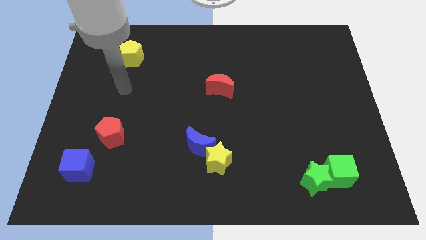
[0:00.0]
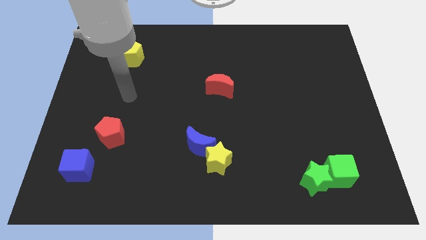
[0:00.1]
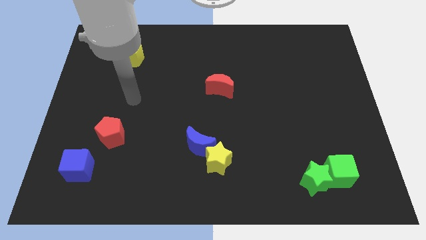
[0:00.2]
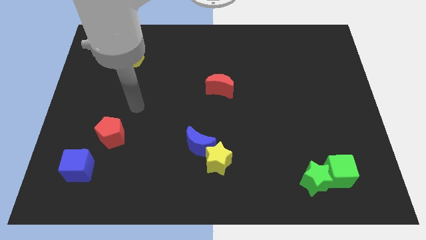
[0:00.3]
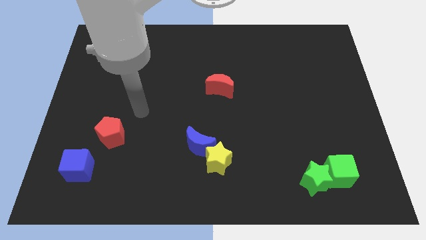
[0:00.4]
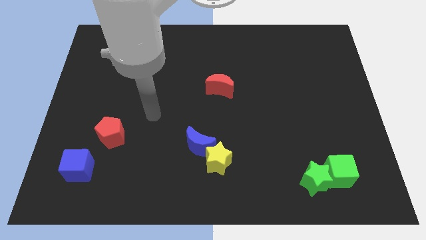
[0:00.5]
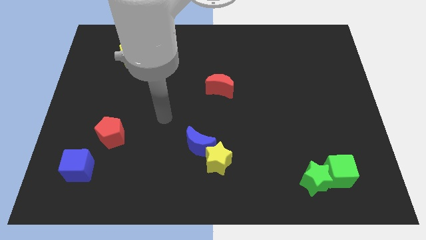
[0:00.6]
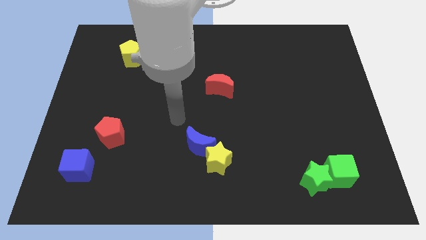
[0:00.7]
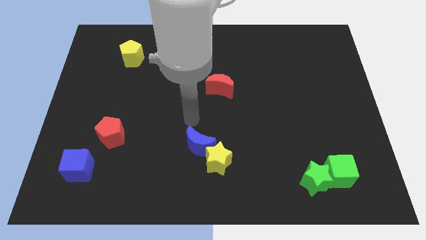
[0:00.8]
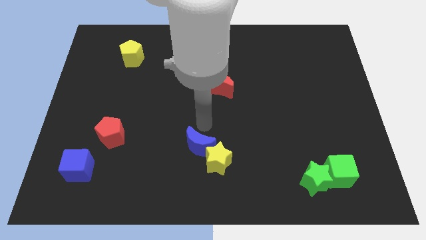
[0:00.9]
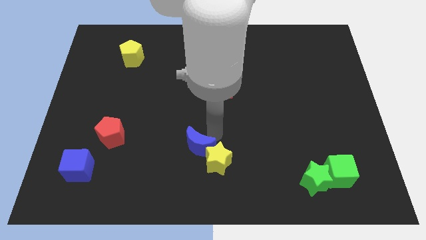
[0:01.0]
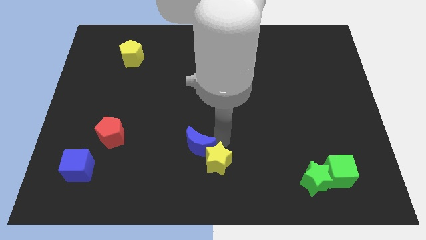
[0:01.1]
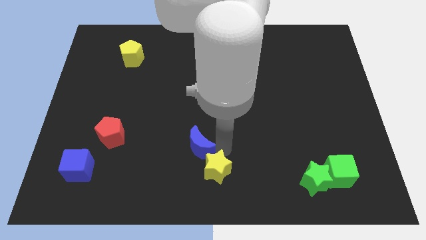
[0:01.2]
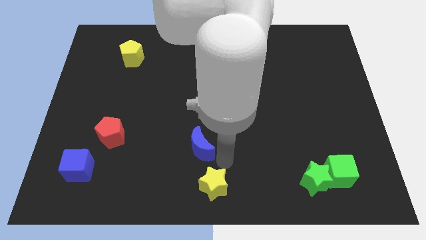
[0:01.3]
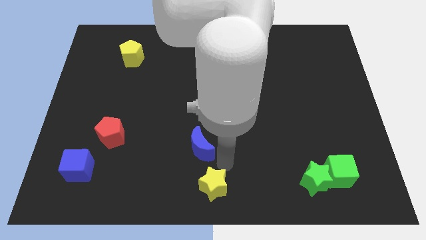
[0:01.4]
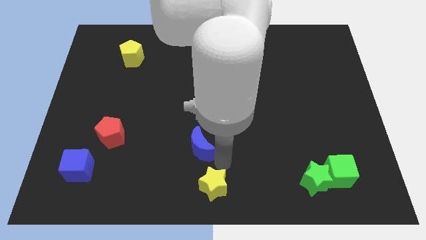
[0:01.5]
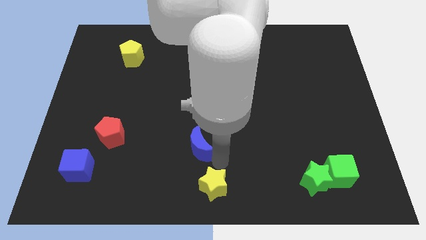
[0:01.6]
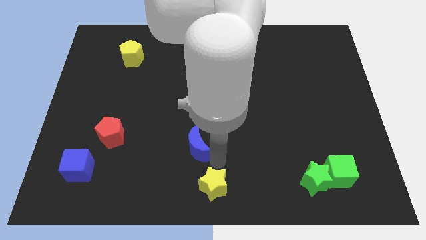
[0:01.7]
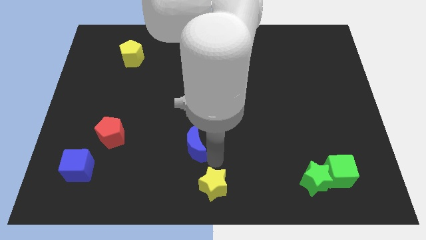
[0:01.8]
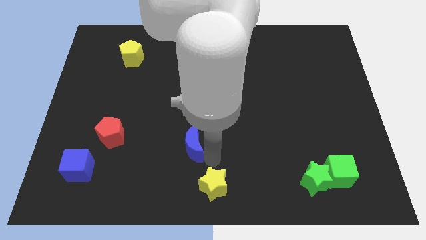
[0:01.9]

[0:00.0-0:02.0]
separate the blue moon from the yellow star

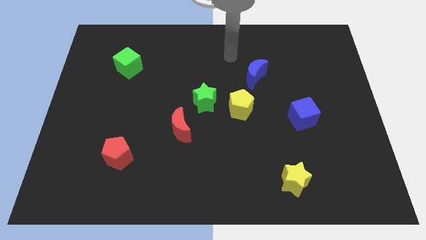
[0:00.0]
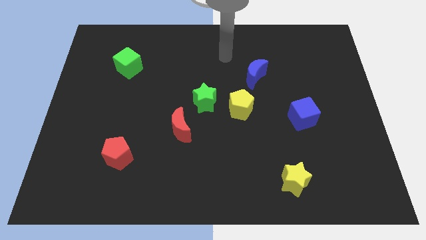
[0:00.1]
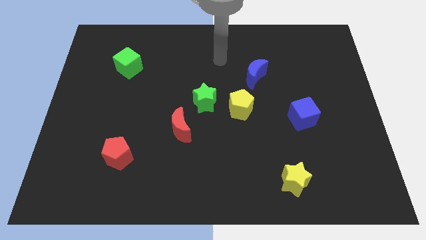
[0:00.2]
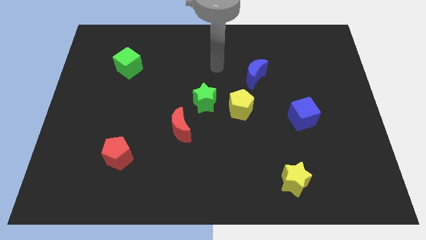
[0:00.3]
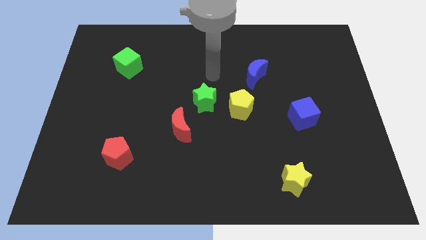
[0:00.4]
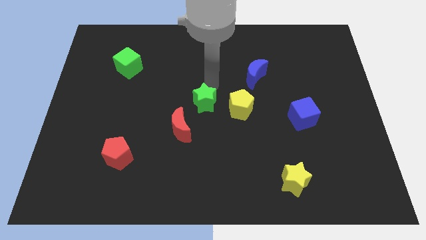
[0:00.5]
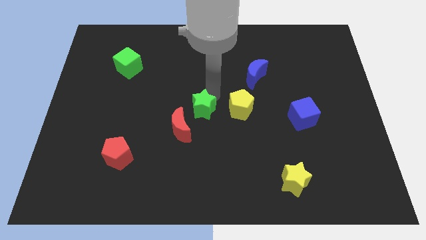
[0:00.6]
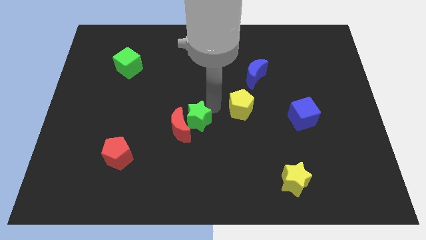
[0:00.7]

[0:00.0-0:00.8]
separate the yellow pentagon from the green star

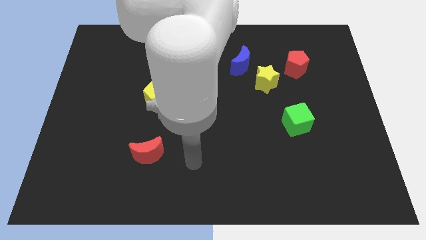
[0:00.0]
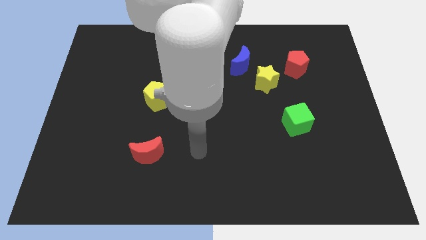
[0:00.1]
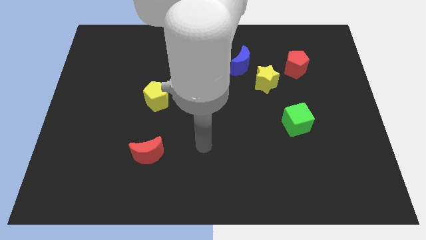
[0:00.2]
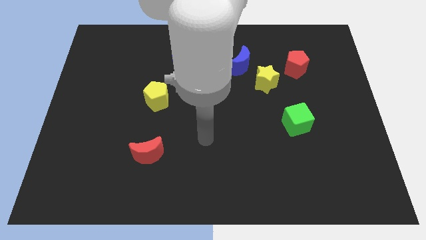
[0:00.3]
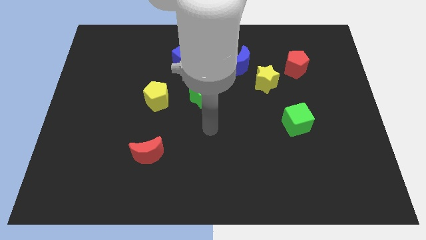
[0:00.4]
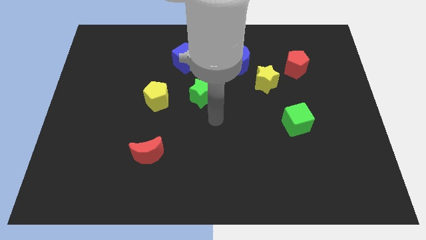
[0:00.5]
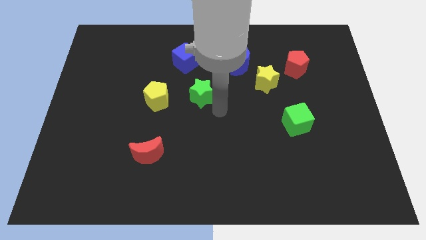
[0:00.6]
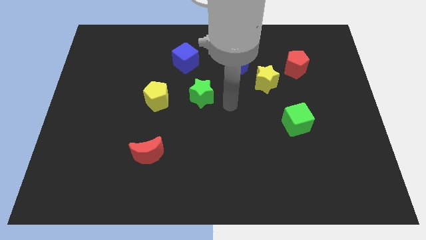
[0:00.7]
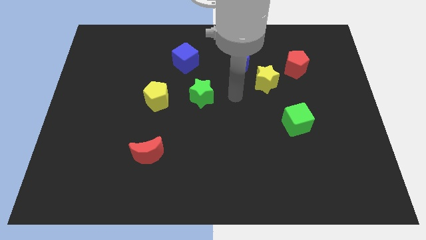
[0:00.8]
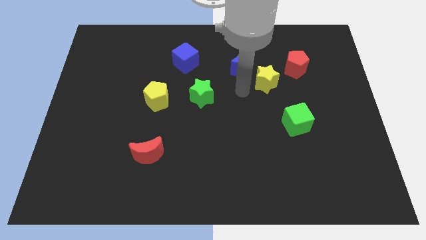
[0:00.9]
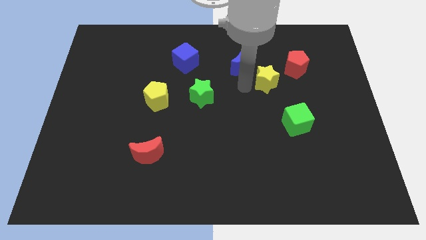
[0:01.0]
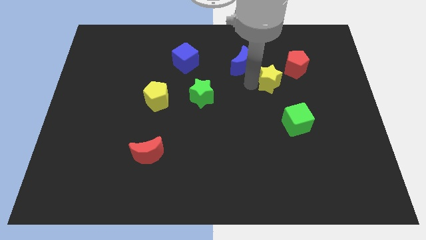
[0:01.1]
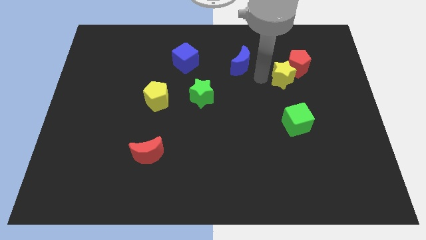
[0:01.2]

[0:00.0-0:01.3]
move the blue moon away from the yellow star

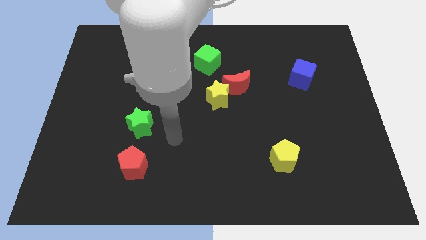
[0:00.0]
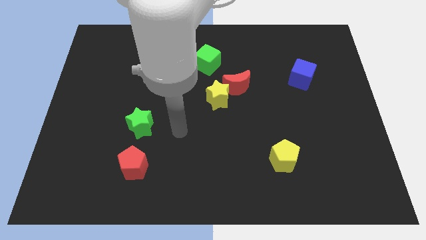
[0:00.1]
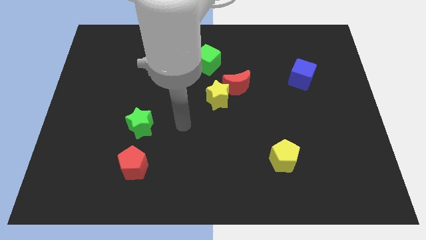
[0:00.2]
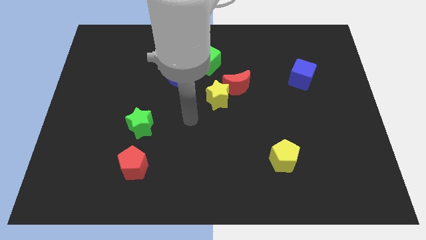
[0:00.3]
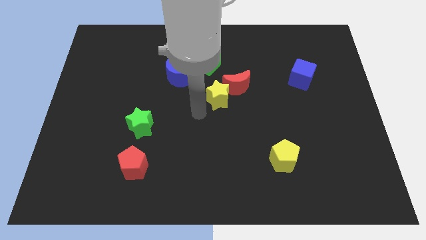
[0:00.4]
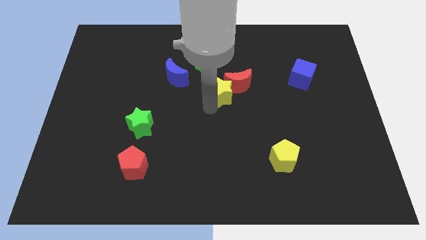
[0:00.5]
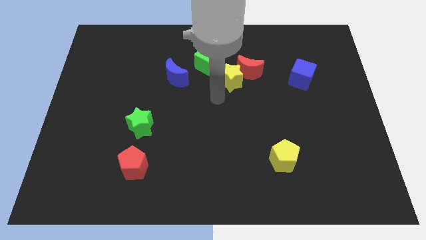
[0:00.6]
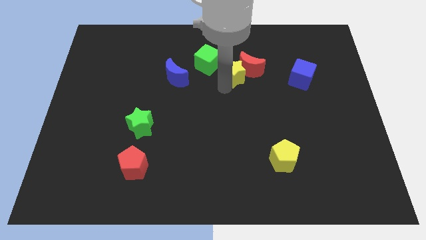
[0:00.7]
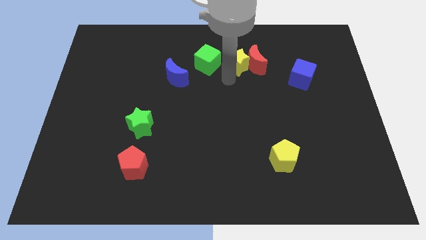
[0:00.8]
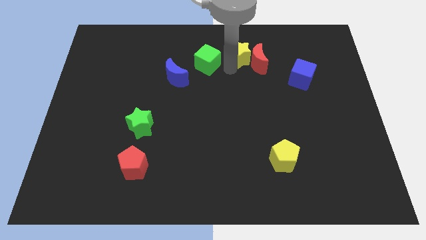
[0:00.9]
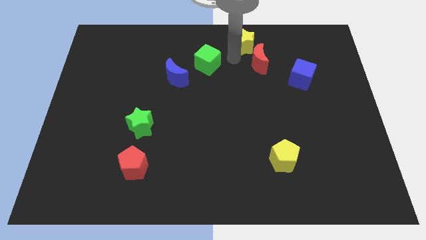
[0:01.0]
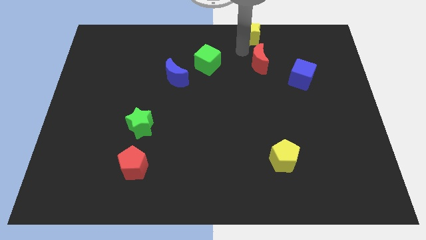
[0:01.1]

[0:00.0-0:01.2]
separate the red moon from the yellow star

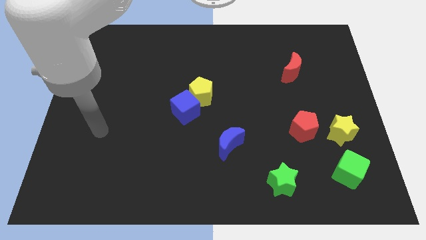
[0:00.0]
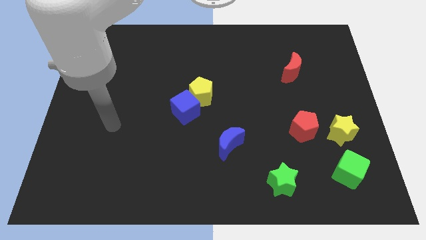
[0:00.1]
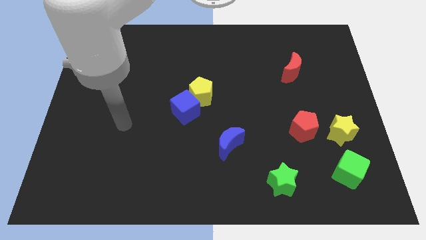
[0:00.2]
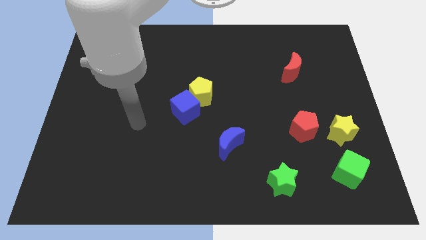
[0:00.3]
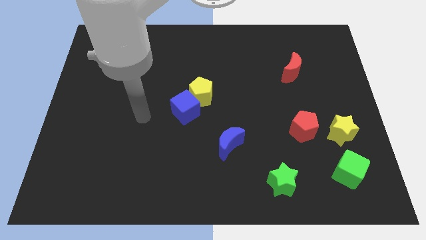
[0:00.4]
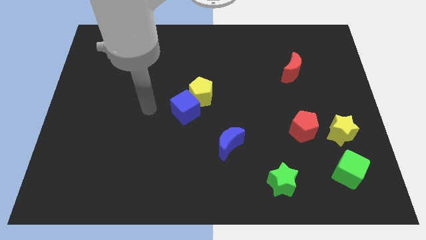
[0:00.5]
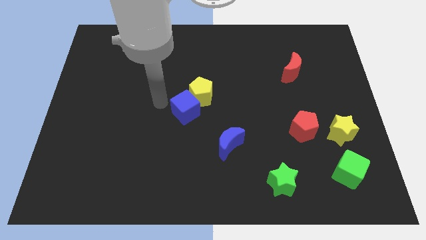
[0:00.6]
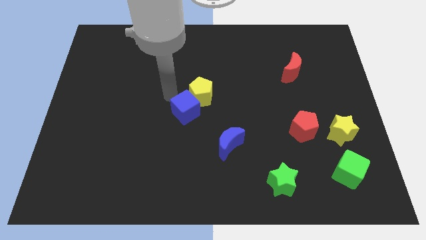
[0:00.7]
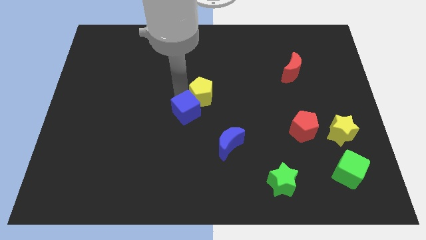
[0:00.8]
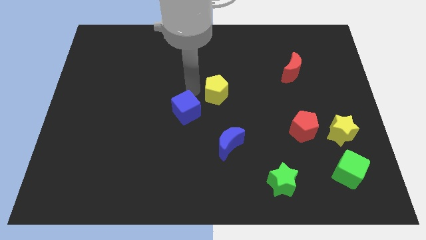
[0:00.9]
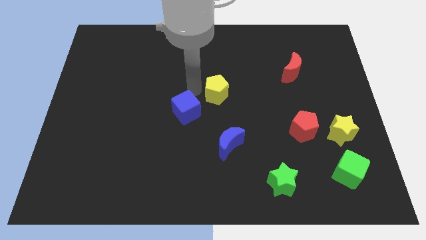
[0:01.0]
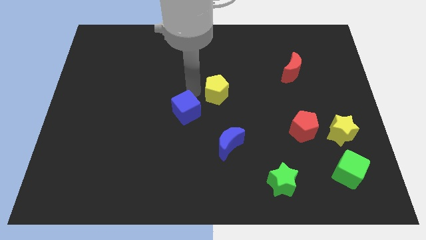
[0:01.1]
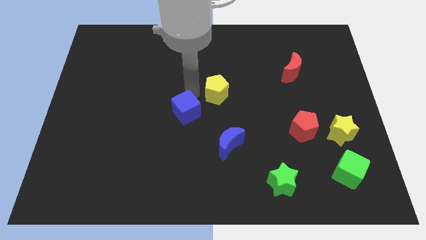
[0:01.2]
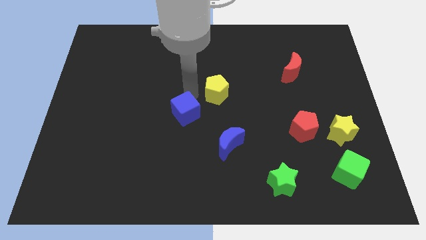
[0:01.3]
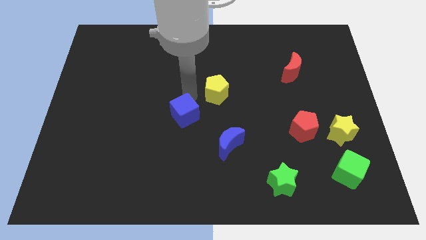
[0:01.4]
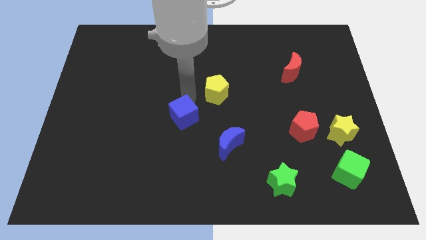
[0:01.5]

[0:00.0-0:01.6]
separate the blue cube from the yellow pentagon

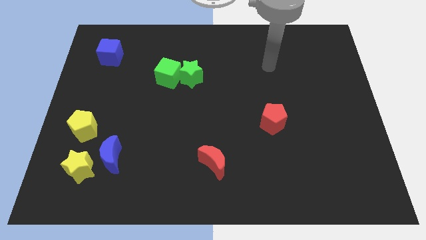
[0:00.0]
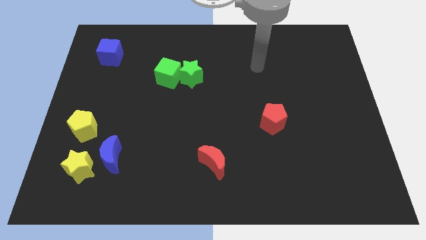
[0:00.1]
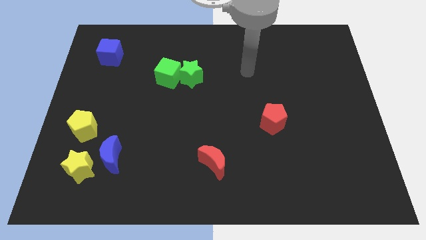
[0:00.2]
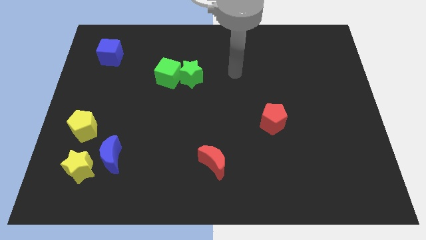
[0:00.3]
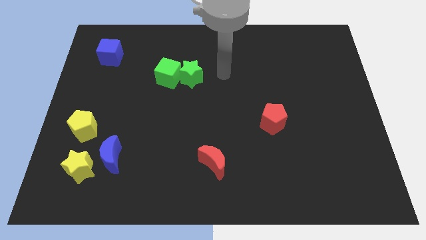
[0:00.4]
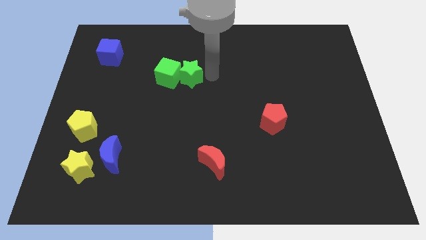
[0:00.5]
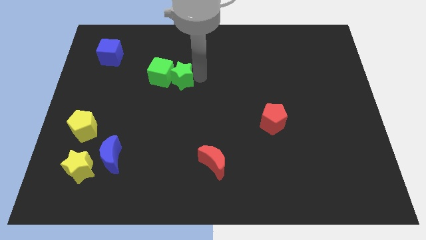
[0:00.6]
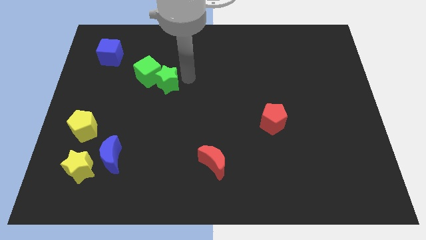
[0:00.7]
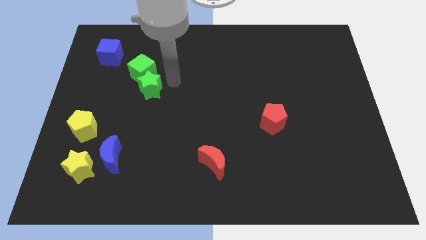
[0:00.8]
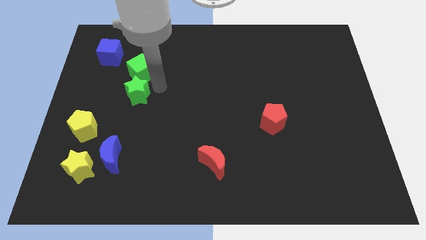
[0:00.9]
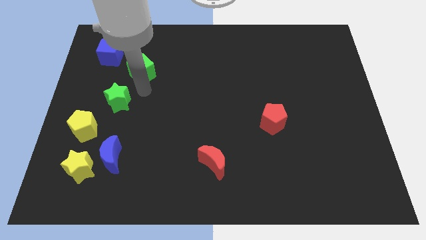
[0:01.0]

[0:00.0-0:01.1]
separate the green cube from the green star

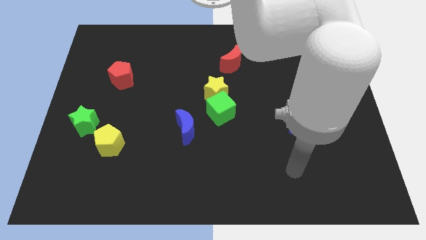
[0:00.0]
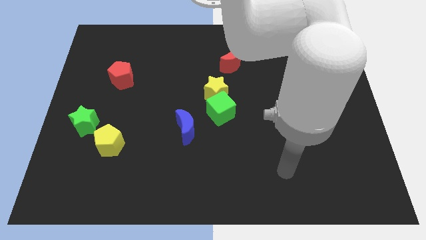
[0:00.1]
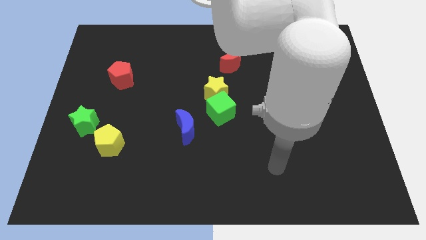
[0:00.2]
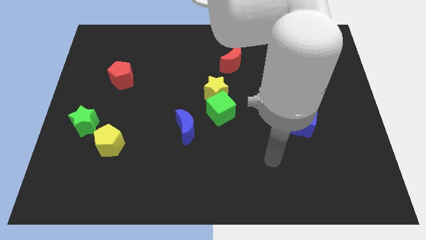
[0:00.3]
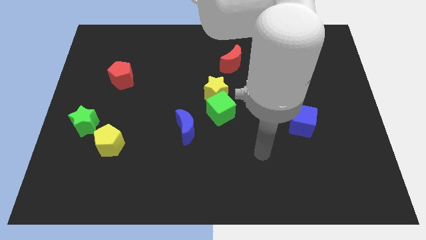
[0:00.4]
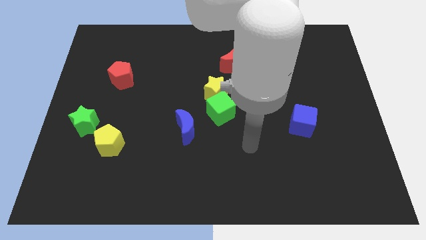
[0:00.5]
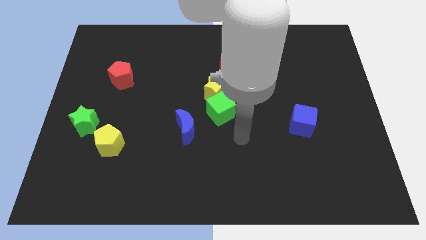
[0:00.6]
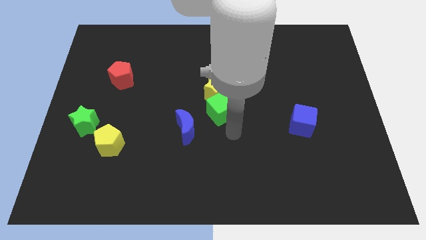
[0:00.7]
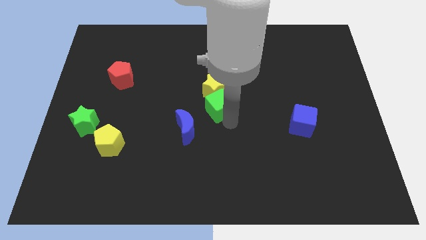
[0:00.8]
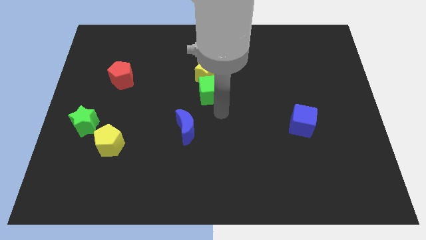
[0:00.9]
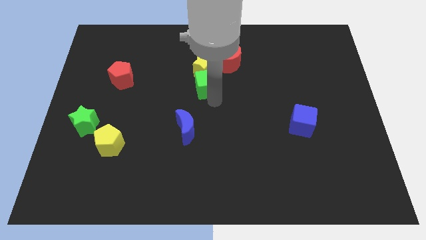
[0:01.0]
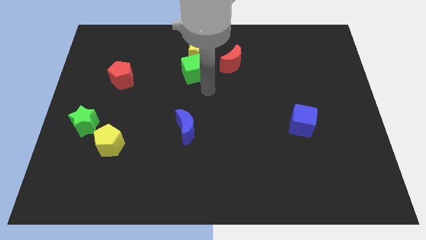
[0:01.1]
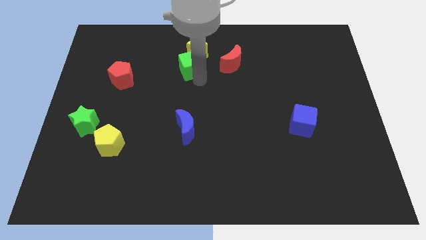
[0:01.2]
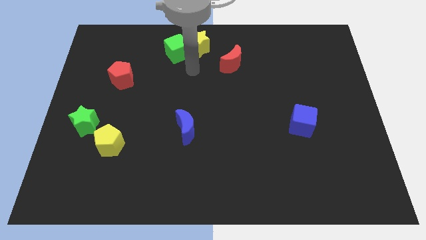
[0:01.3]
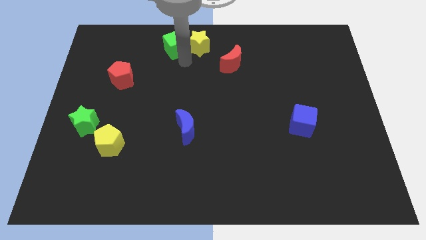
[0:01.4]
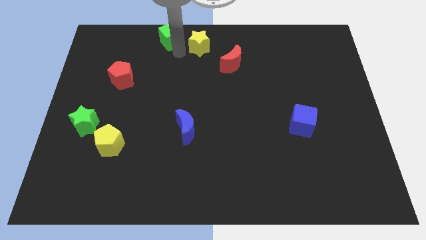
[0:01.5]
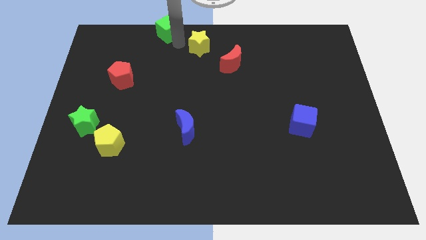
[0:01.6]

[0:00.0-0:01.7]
move the yellow star away from the green cube
